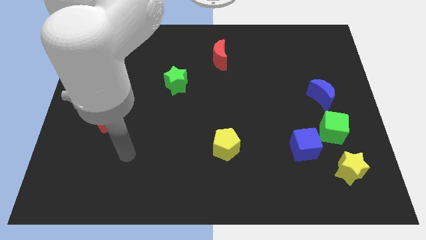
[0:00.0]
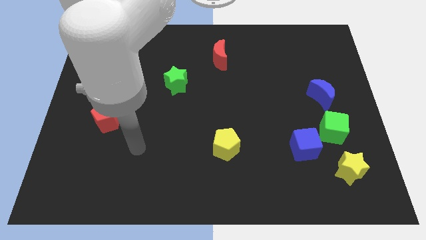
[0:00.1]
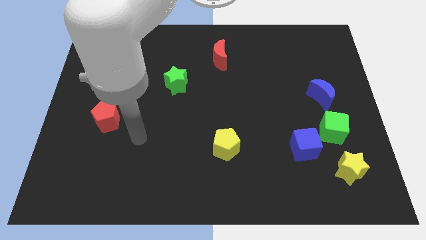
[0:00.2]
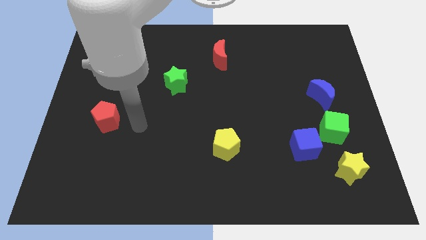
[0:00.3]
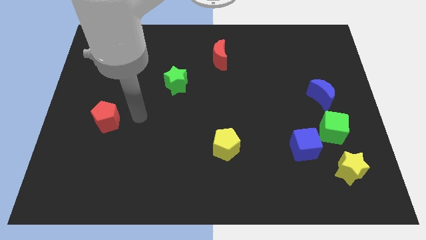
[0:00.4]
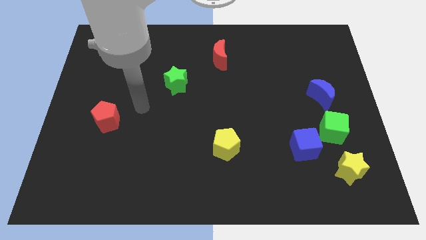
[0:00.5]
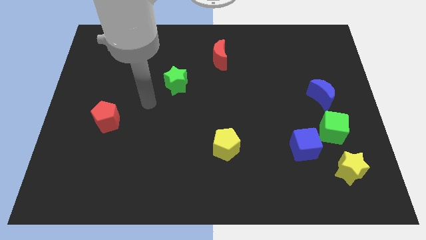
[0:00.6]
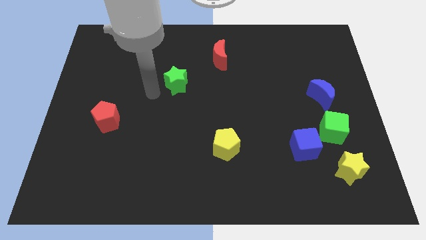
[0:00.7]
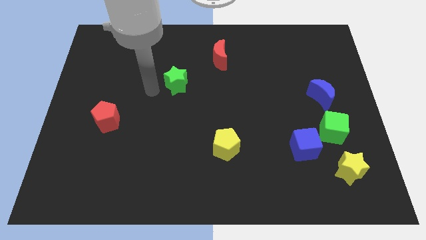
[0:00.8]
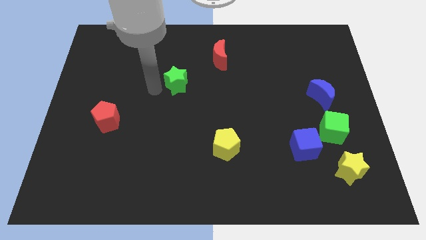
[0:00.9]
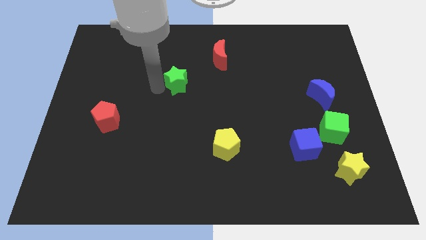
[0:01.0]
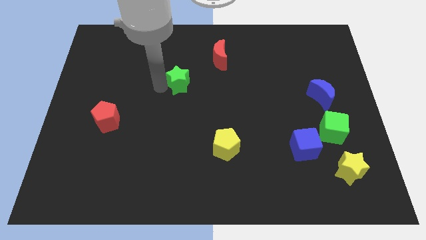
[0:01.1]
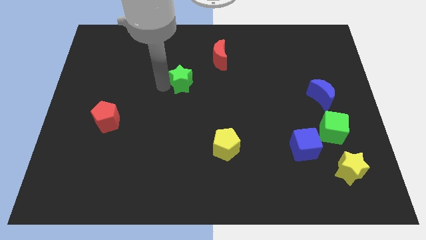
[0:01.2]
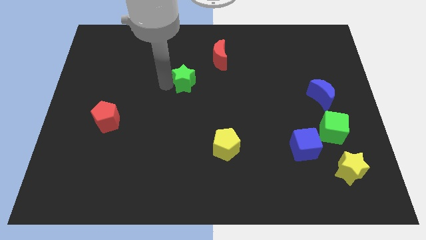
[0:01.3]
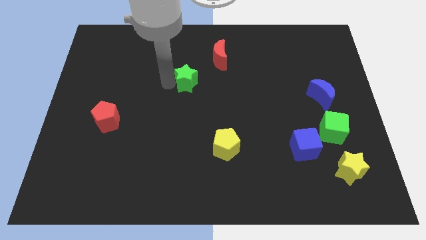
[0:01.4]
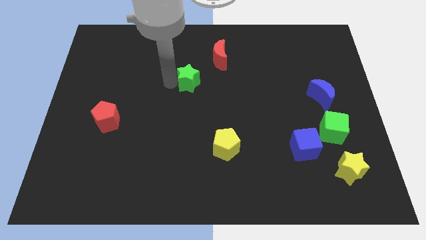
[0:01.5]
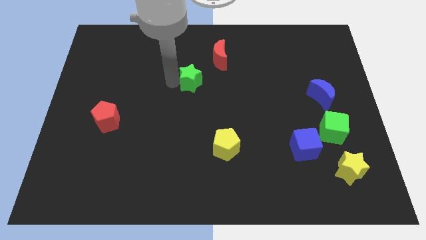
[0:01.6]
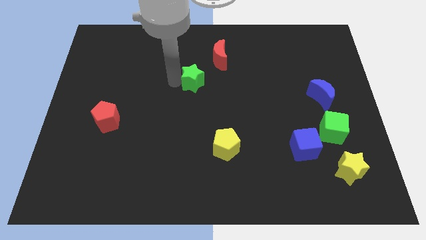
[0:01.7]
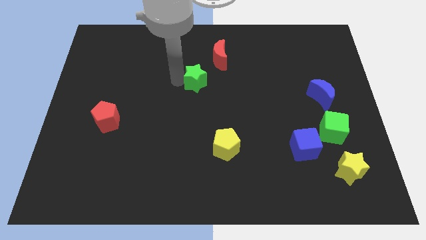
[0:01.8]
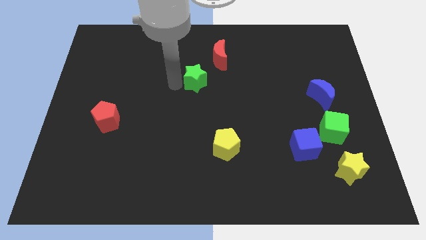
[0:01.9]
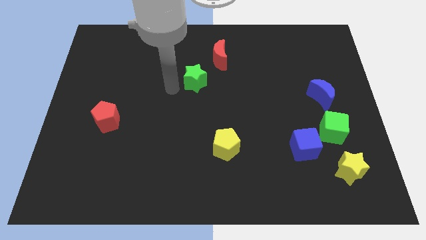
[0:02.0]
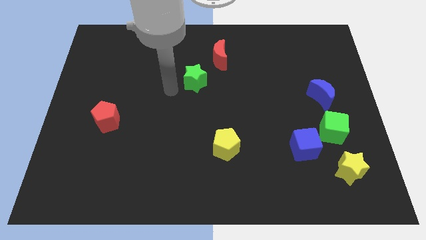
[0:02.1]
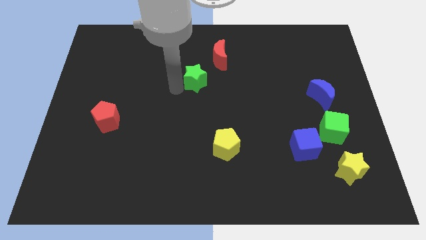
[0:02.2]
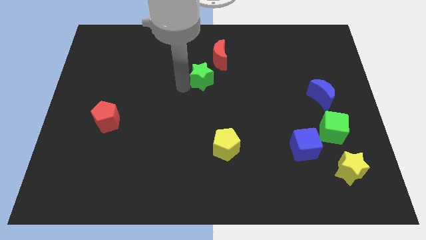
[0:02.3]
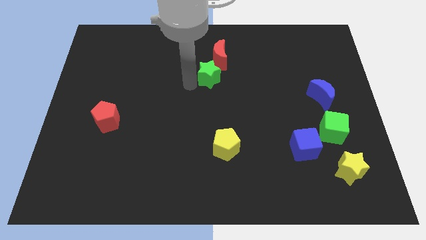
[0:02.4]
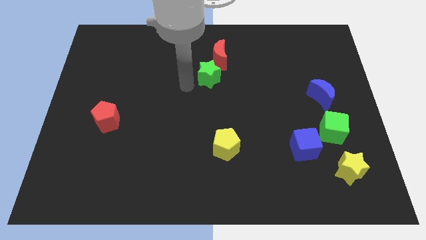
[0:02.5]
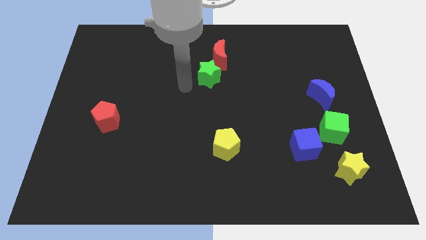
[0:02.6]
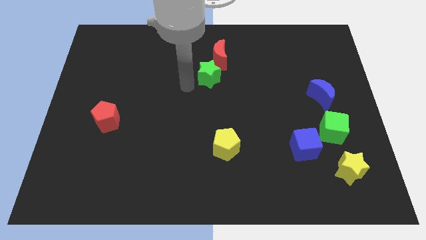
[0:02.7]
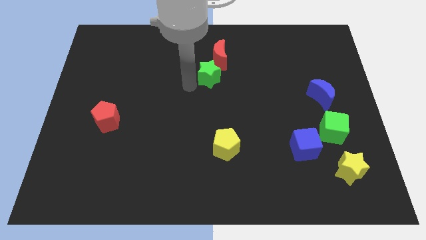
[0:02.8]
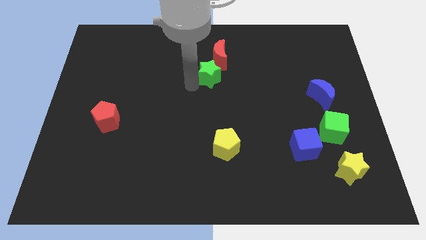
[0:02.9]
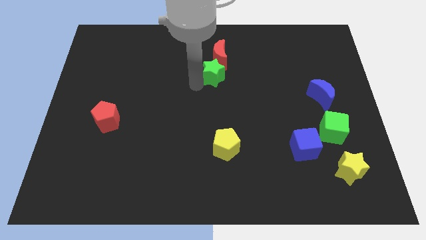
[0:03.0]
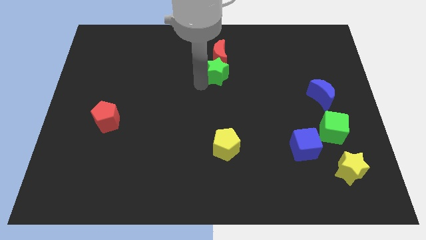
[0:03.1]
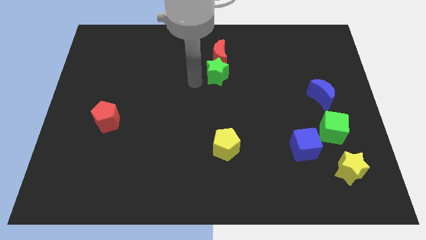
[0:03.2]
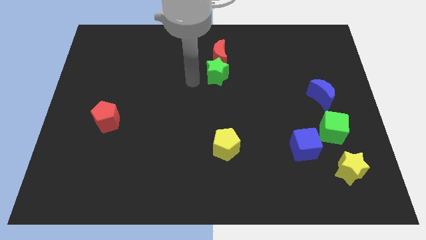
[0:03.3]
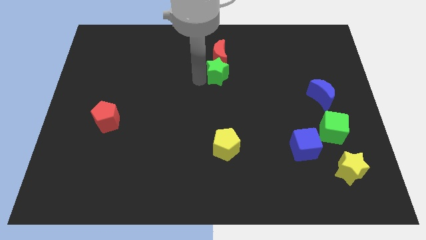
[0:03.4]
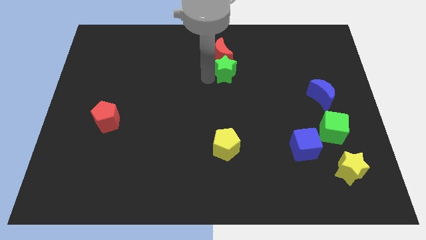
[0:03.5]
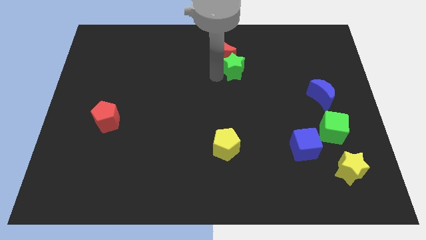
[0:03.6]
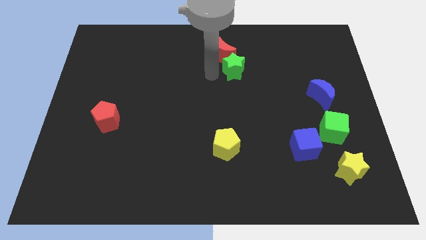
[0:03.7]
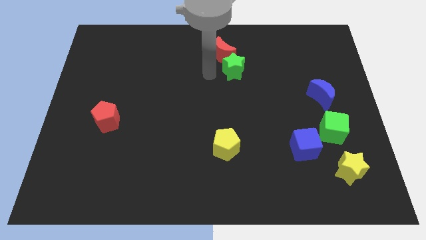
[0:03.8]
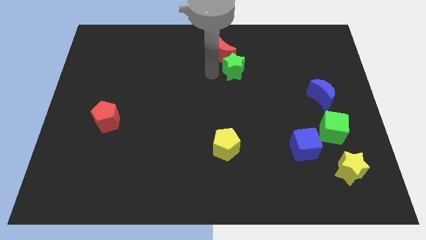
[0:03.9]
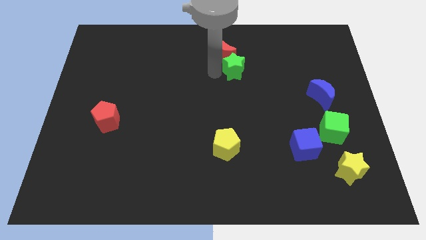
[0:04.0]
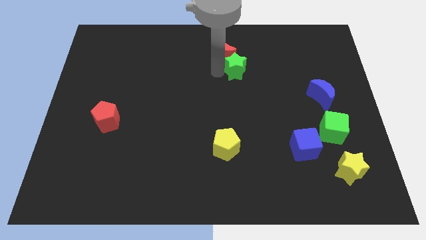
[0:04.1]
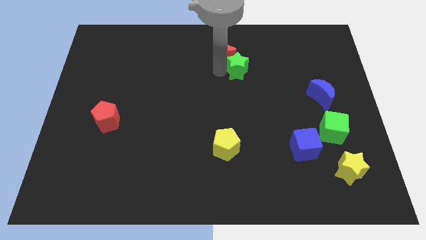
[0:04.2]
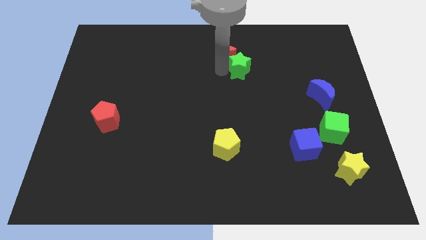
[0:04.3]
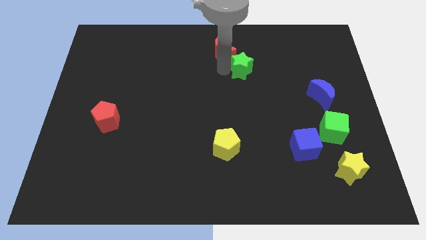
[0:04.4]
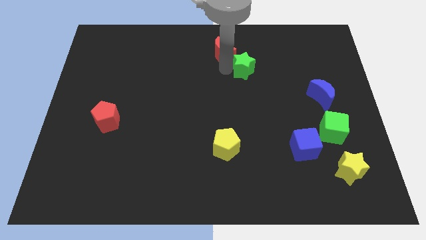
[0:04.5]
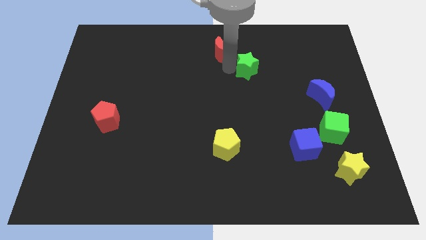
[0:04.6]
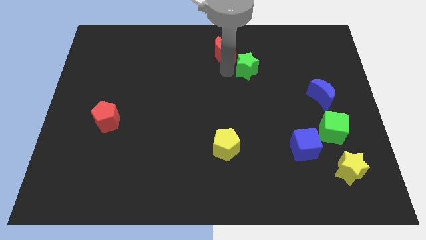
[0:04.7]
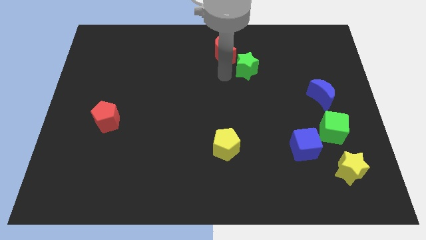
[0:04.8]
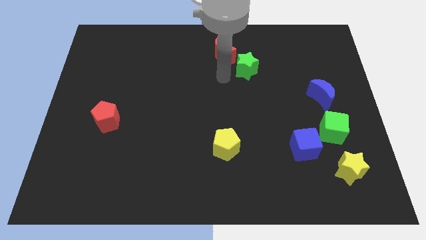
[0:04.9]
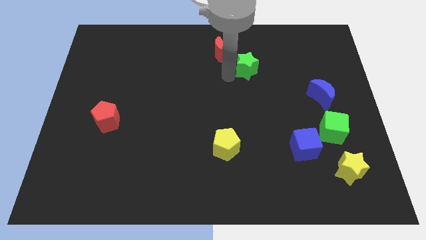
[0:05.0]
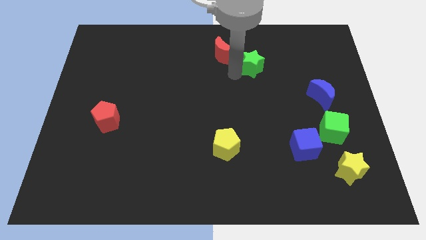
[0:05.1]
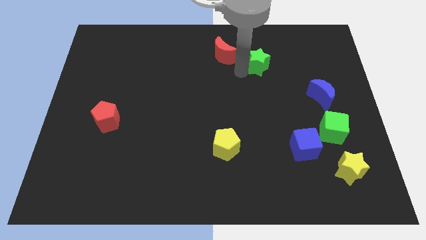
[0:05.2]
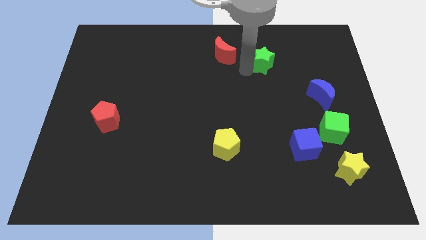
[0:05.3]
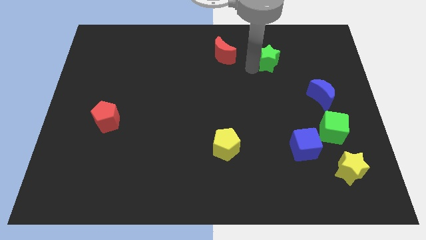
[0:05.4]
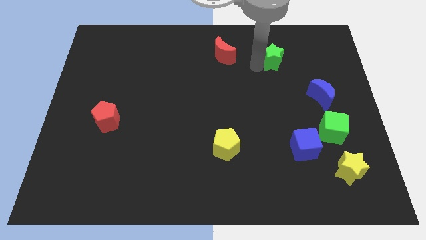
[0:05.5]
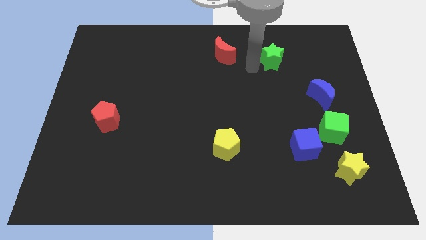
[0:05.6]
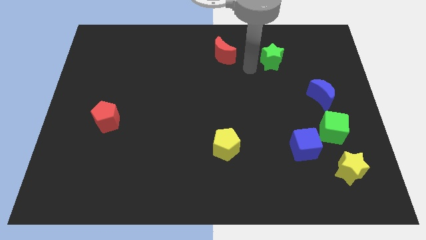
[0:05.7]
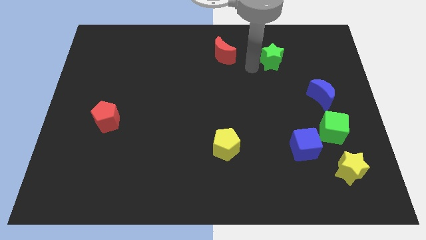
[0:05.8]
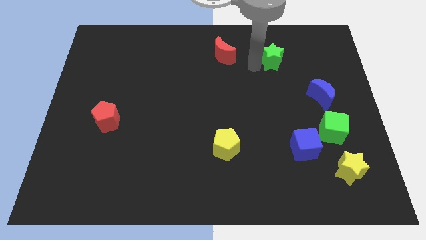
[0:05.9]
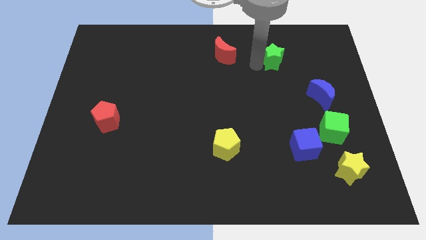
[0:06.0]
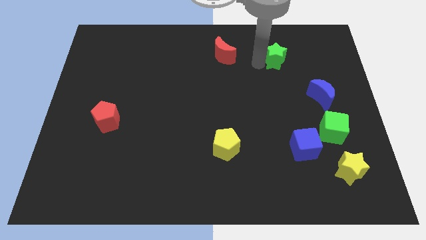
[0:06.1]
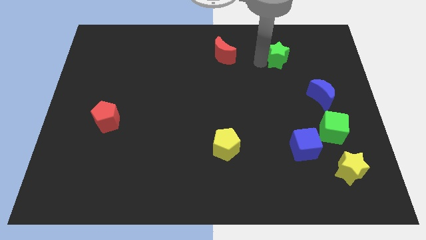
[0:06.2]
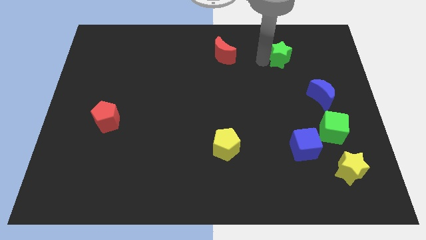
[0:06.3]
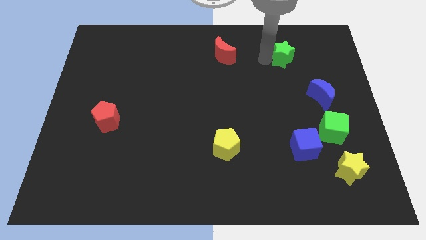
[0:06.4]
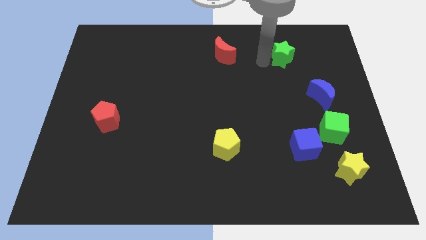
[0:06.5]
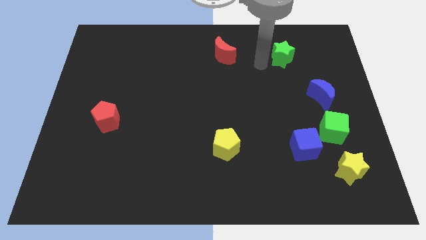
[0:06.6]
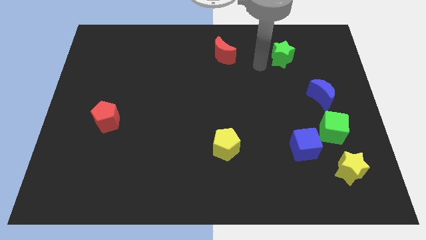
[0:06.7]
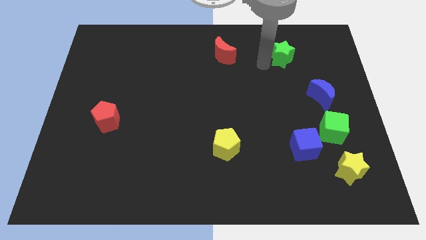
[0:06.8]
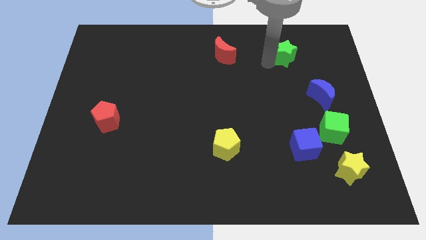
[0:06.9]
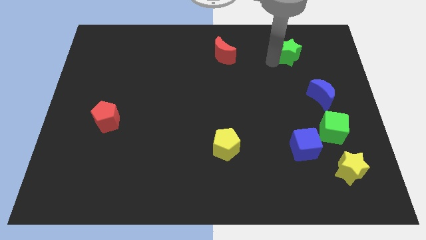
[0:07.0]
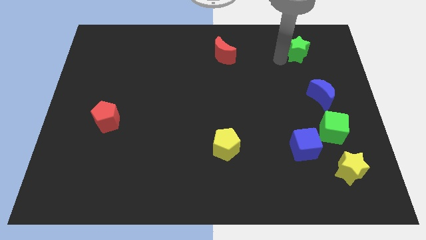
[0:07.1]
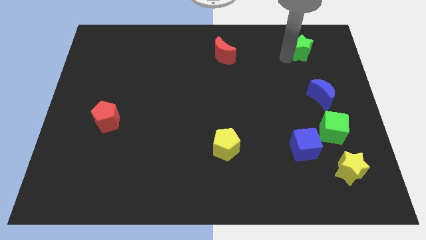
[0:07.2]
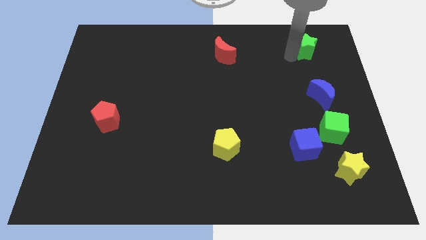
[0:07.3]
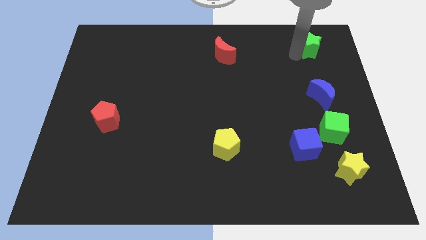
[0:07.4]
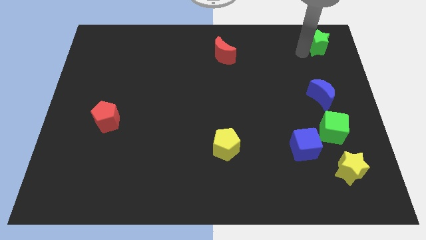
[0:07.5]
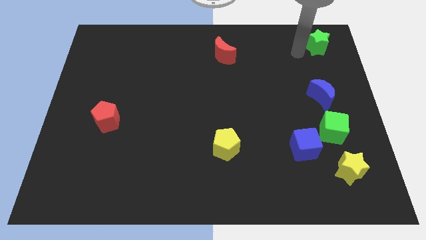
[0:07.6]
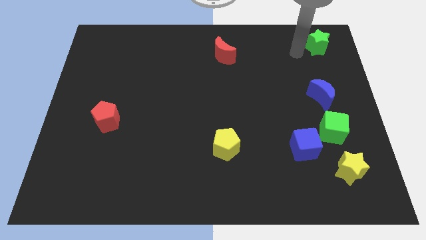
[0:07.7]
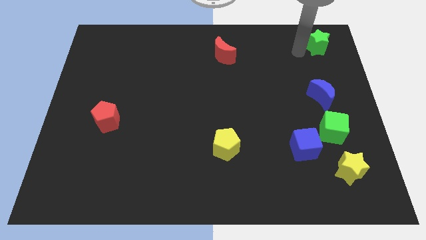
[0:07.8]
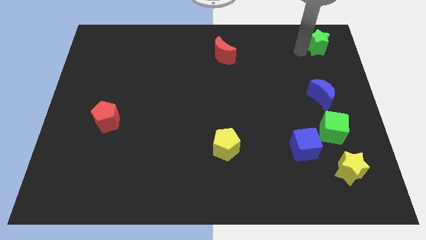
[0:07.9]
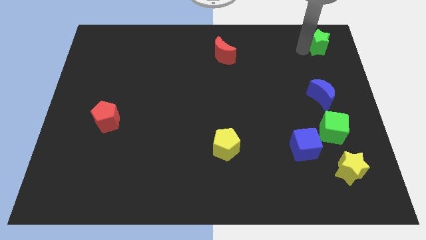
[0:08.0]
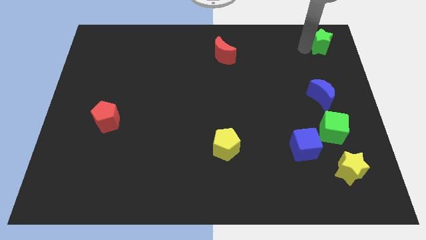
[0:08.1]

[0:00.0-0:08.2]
push the green star to the top right of the board
